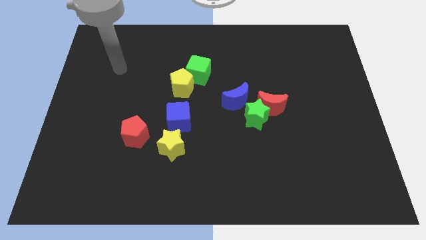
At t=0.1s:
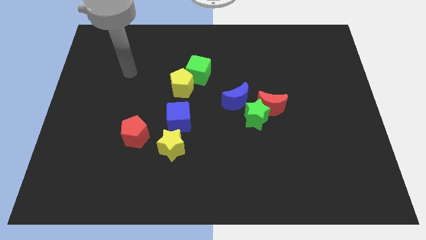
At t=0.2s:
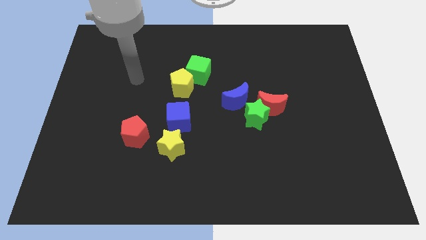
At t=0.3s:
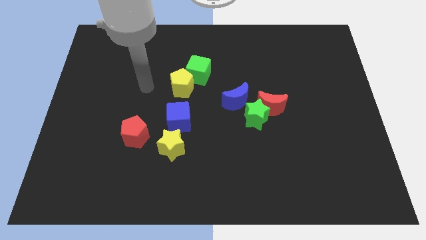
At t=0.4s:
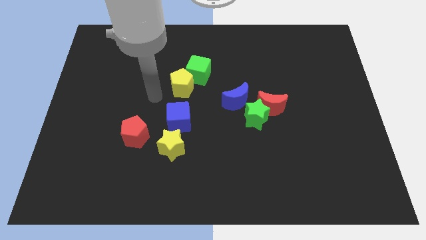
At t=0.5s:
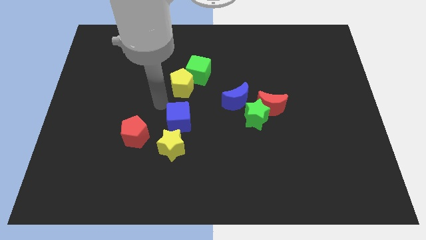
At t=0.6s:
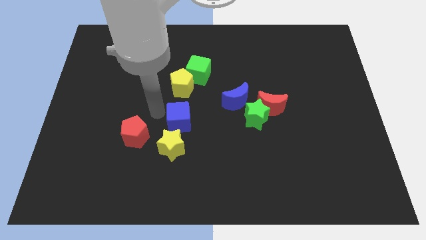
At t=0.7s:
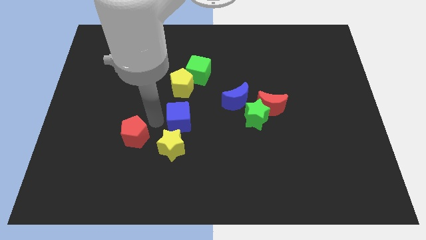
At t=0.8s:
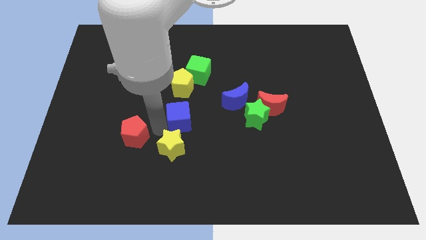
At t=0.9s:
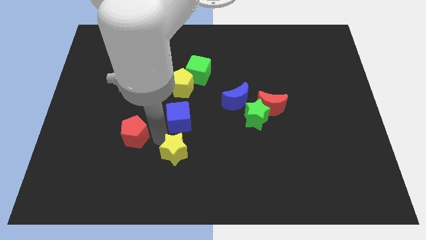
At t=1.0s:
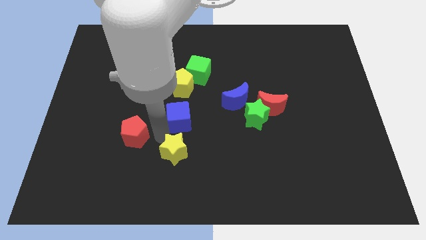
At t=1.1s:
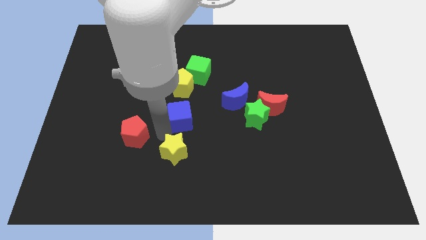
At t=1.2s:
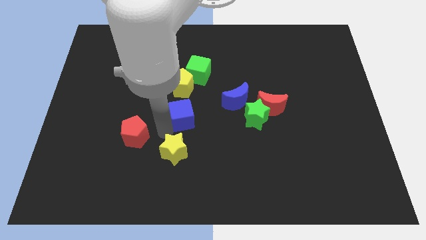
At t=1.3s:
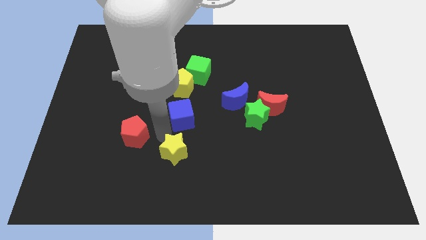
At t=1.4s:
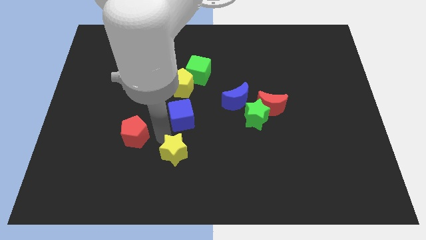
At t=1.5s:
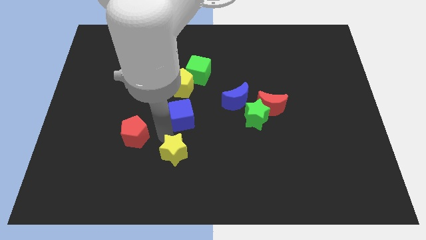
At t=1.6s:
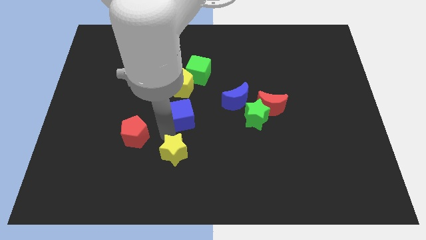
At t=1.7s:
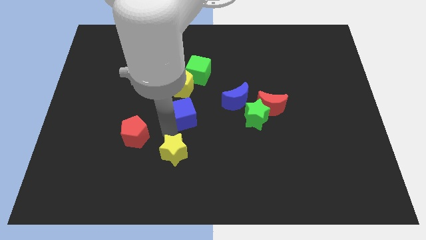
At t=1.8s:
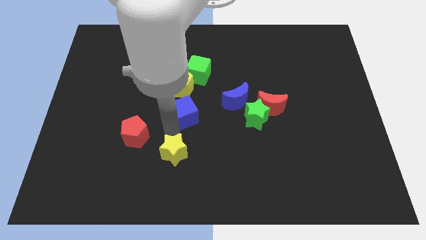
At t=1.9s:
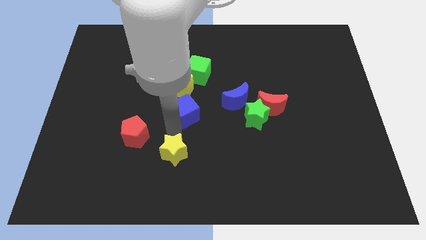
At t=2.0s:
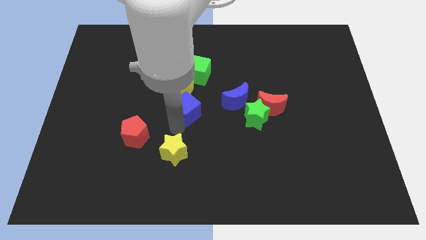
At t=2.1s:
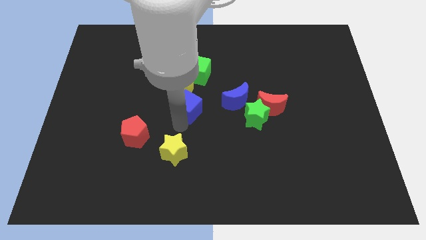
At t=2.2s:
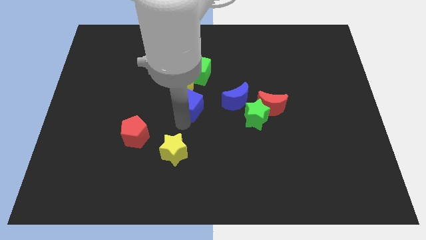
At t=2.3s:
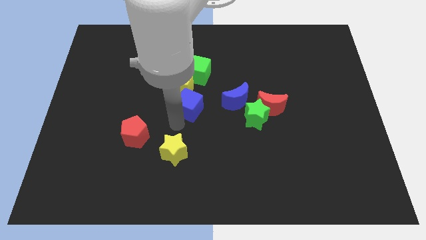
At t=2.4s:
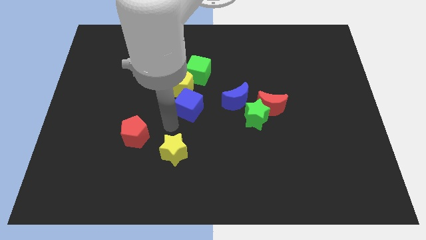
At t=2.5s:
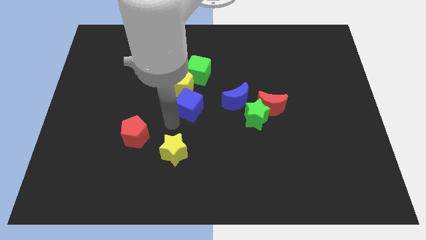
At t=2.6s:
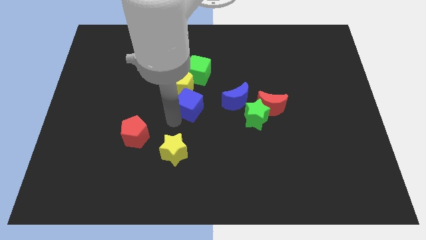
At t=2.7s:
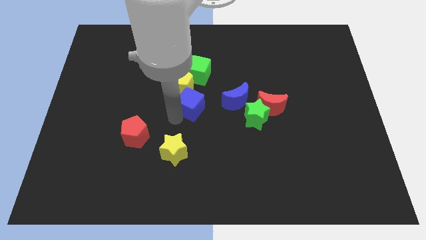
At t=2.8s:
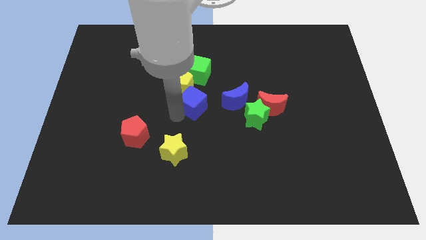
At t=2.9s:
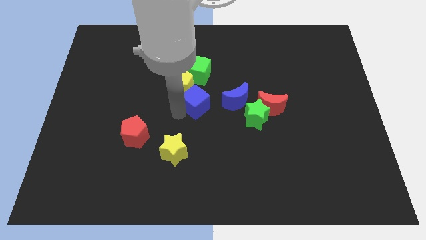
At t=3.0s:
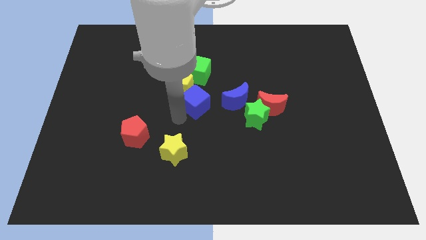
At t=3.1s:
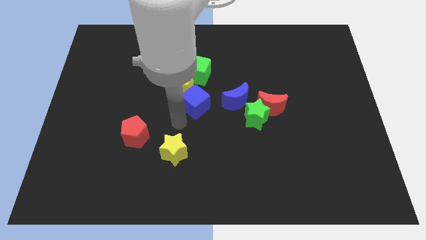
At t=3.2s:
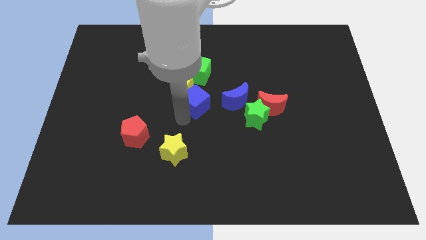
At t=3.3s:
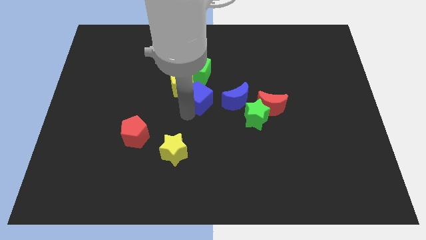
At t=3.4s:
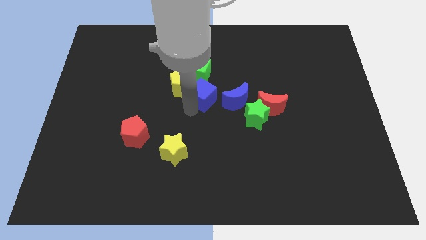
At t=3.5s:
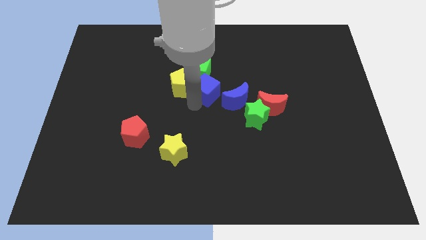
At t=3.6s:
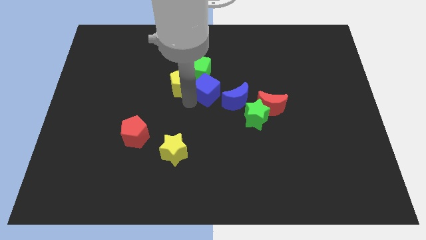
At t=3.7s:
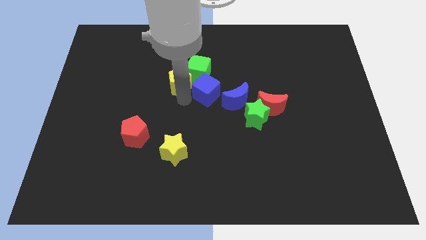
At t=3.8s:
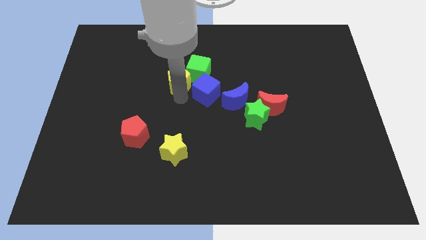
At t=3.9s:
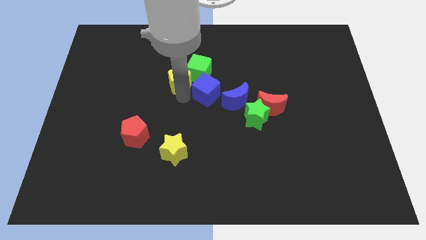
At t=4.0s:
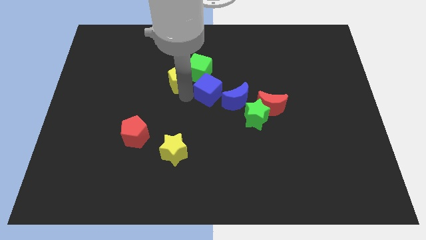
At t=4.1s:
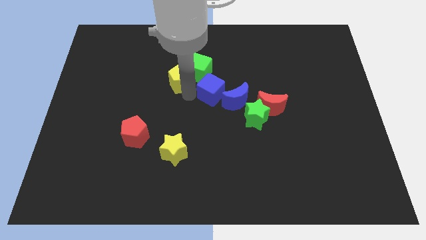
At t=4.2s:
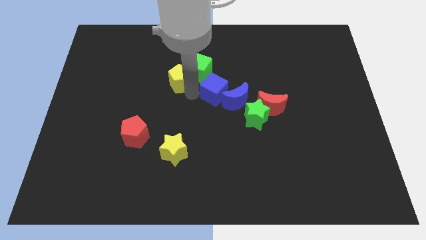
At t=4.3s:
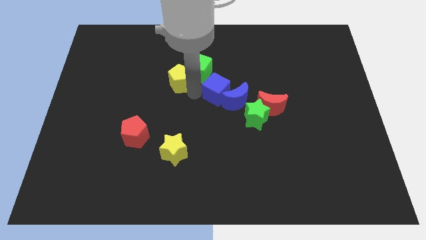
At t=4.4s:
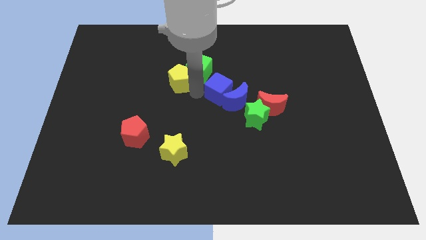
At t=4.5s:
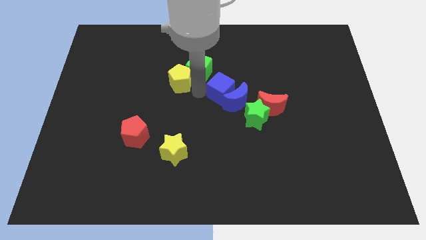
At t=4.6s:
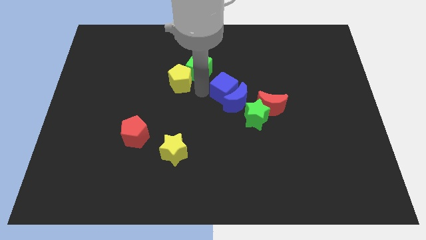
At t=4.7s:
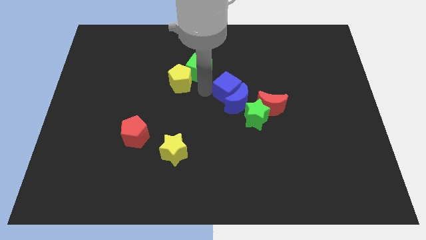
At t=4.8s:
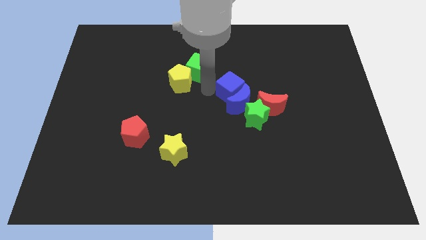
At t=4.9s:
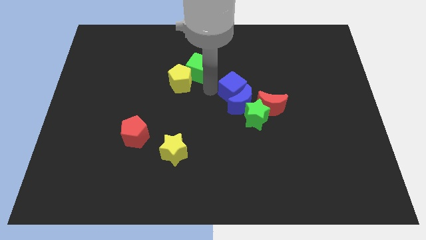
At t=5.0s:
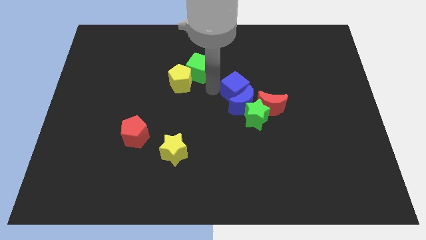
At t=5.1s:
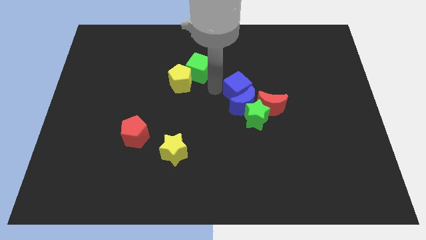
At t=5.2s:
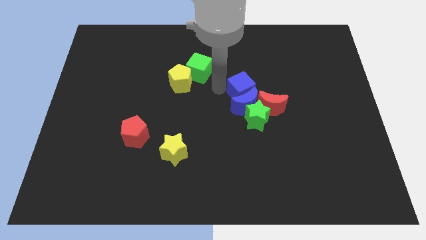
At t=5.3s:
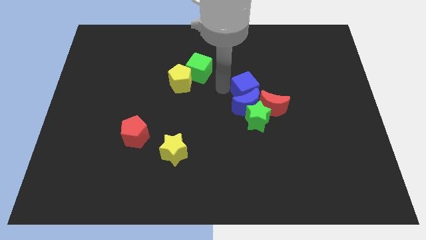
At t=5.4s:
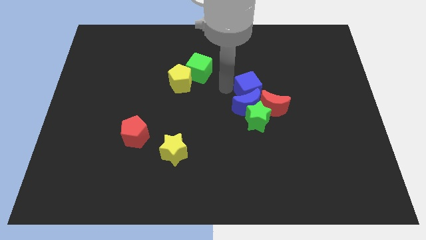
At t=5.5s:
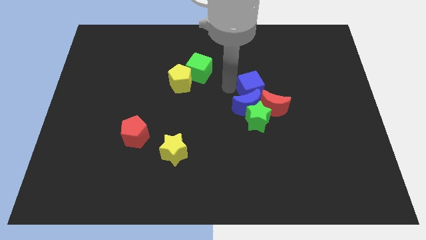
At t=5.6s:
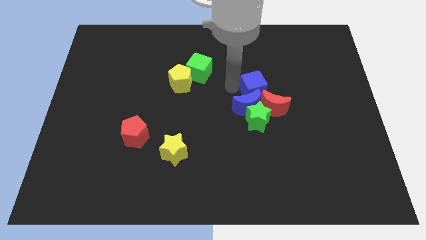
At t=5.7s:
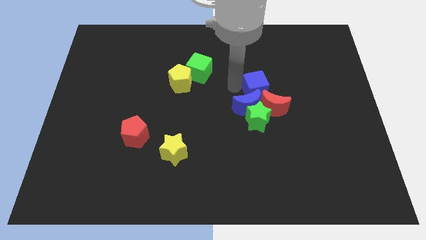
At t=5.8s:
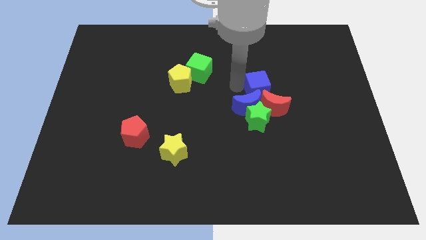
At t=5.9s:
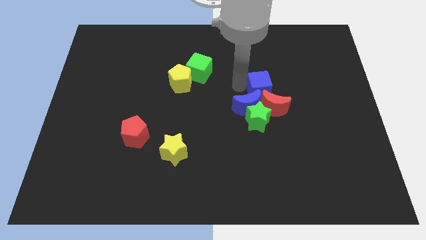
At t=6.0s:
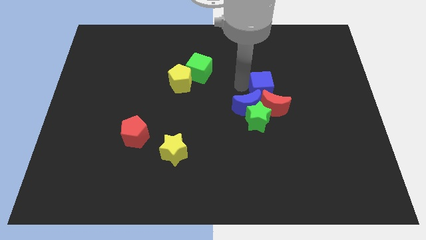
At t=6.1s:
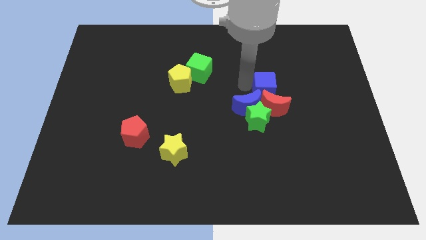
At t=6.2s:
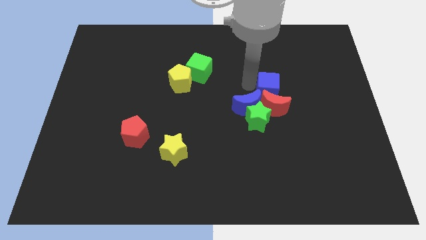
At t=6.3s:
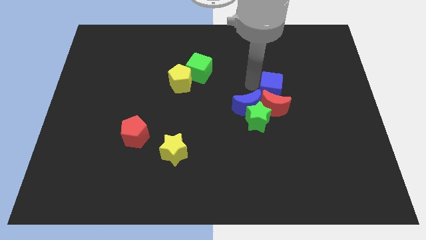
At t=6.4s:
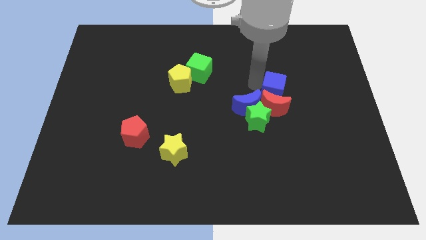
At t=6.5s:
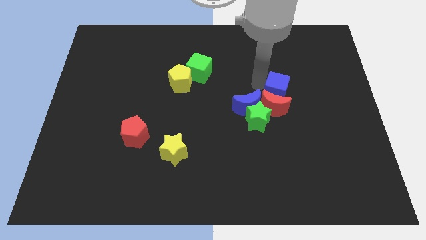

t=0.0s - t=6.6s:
put the blue cube right of the blue moon

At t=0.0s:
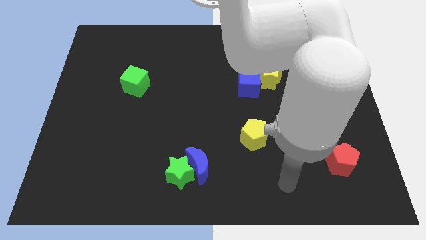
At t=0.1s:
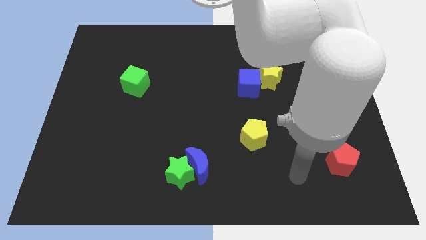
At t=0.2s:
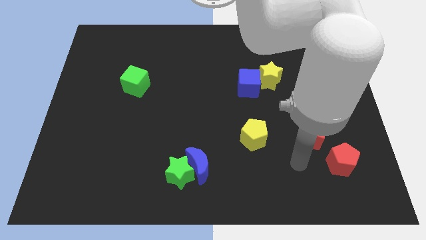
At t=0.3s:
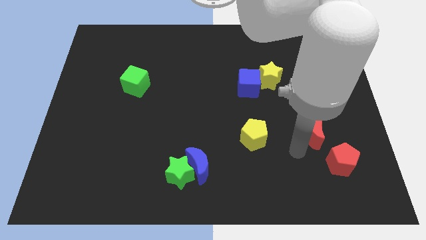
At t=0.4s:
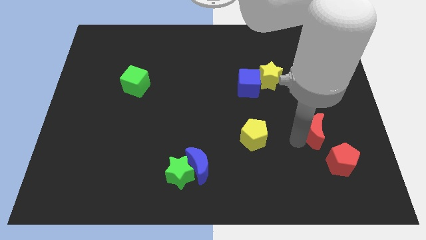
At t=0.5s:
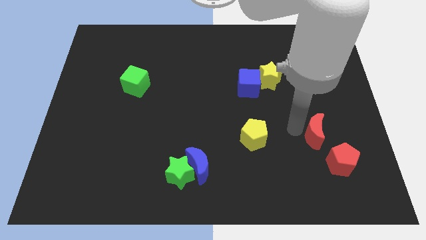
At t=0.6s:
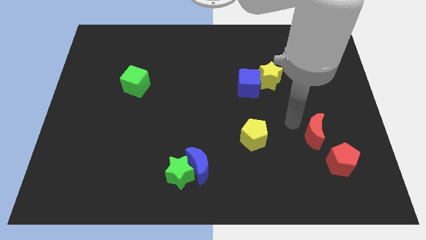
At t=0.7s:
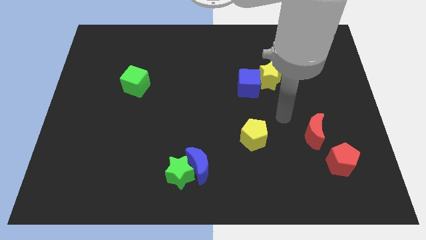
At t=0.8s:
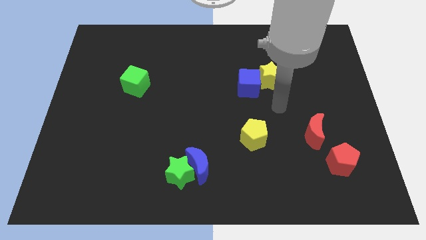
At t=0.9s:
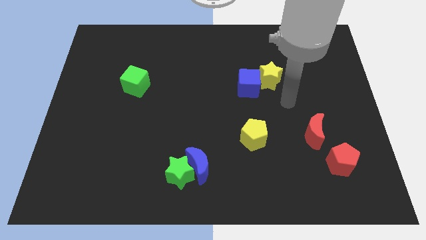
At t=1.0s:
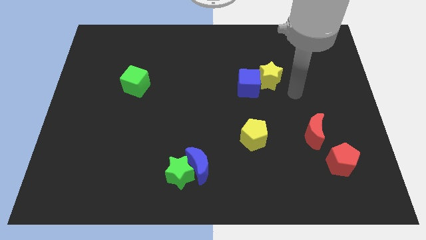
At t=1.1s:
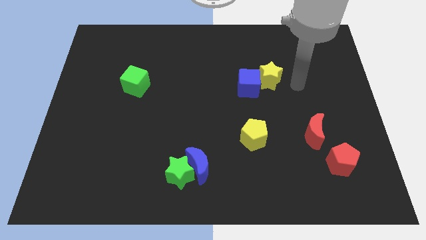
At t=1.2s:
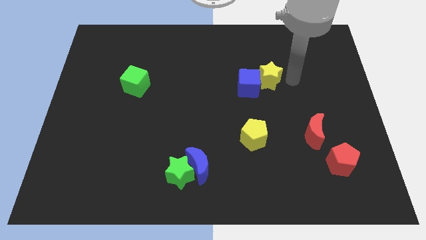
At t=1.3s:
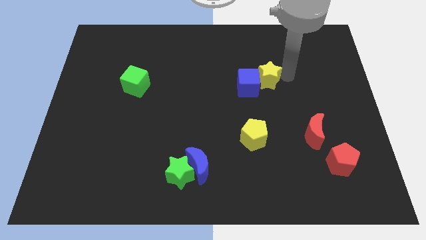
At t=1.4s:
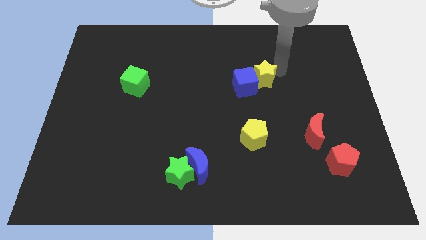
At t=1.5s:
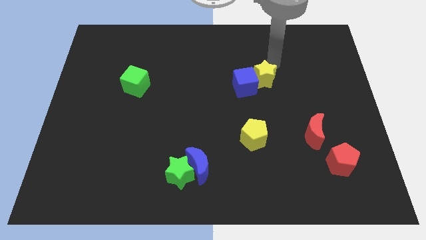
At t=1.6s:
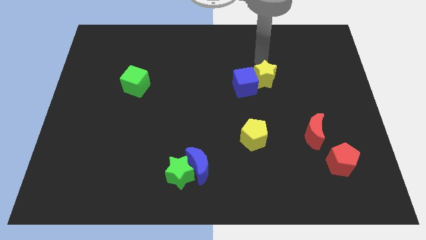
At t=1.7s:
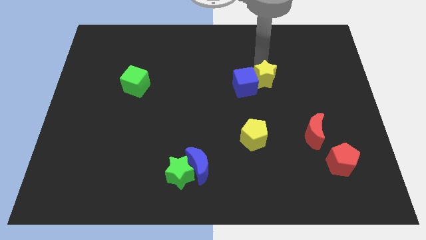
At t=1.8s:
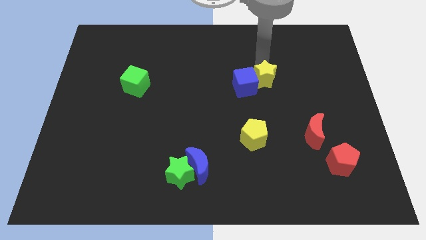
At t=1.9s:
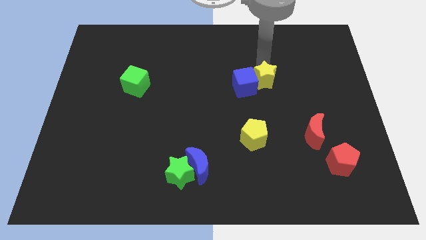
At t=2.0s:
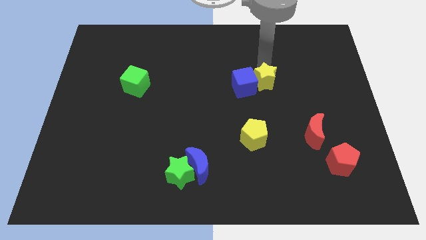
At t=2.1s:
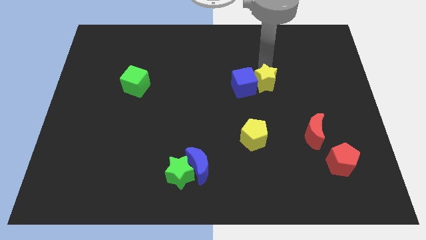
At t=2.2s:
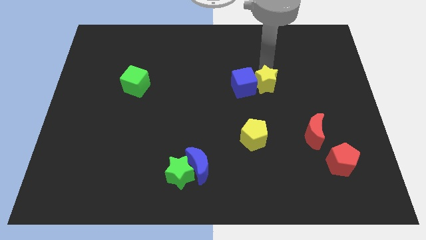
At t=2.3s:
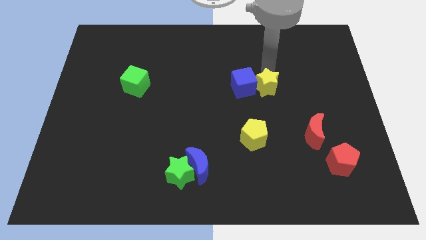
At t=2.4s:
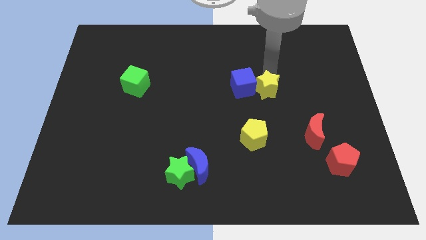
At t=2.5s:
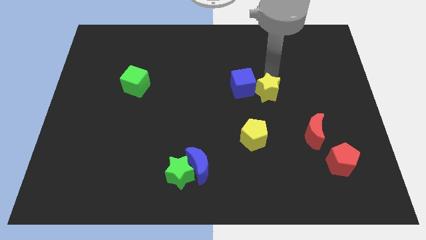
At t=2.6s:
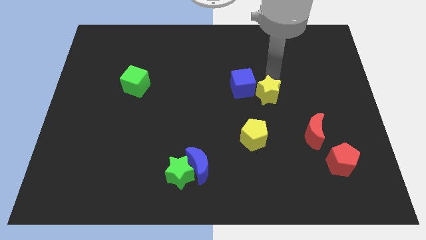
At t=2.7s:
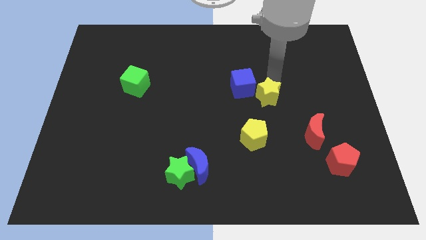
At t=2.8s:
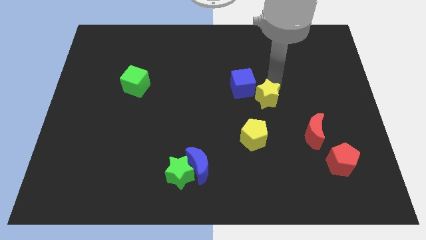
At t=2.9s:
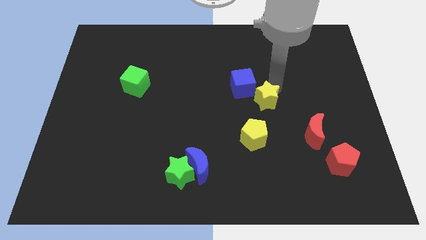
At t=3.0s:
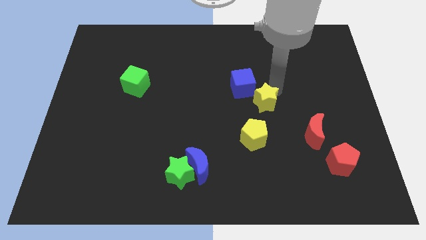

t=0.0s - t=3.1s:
slide the yellow star to the top right of the yellow pentagon
